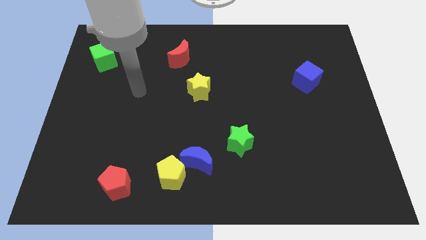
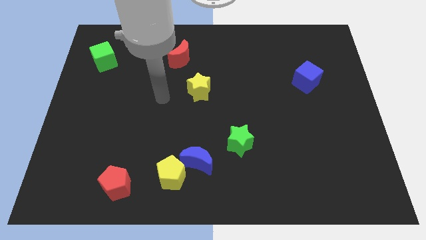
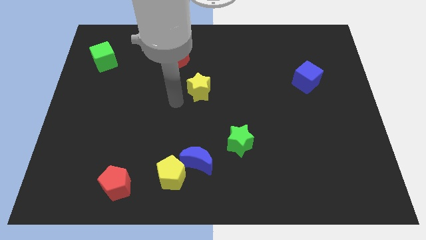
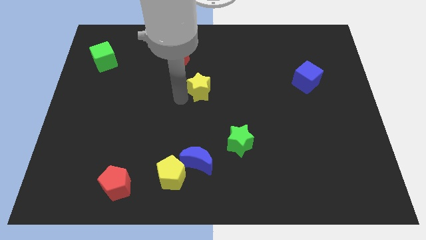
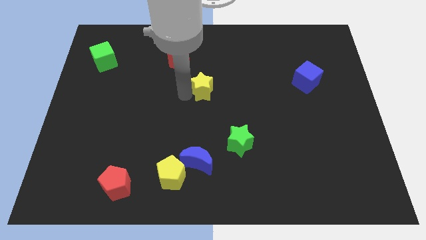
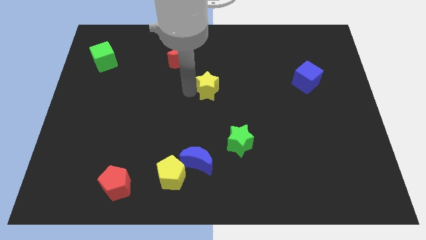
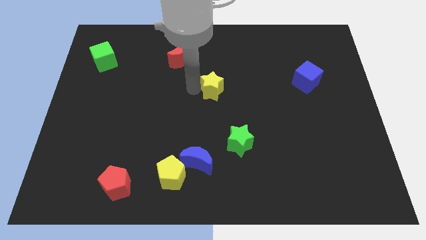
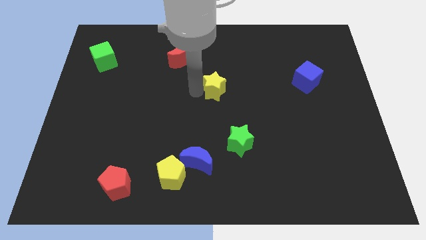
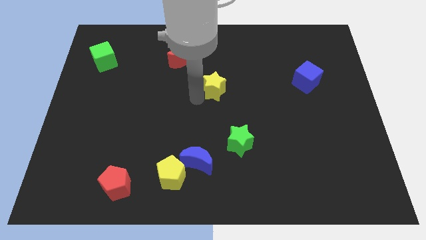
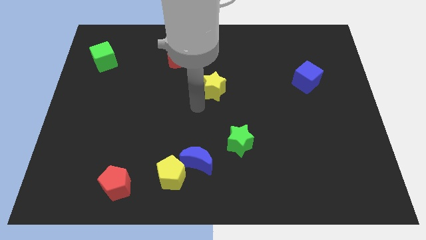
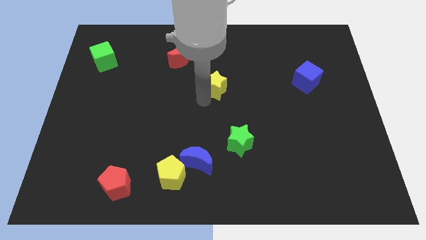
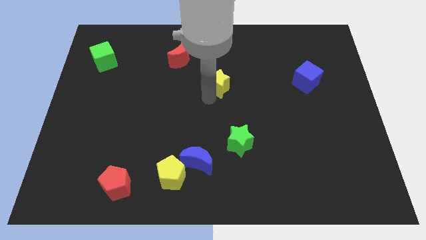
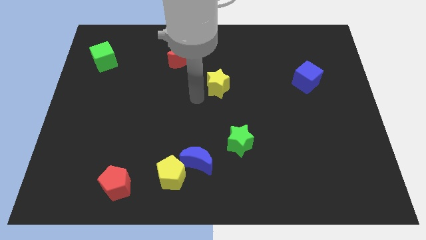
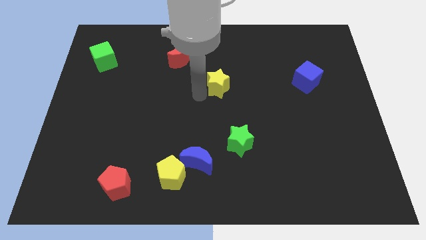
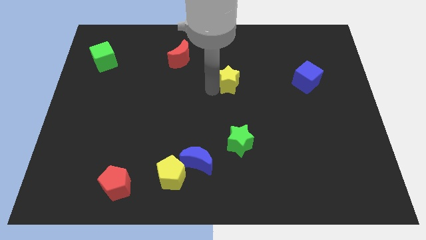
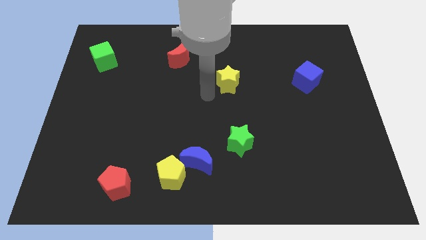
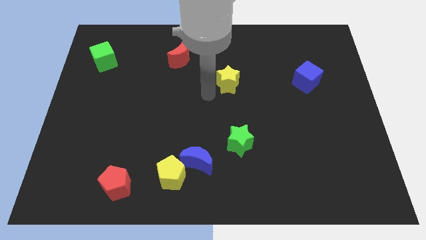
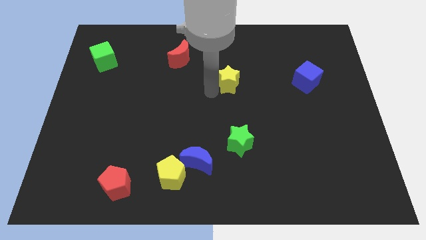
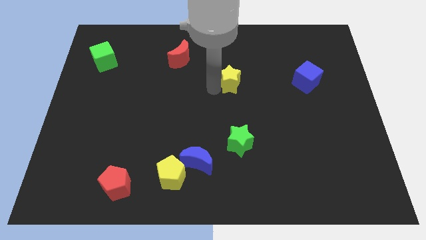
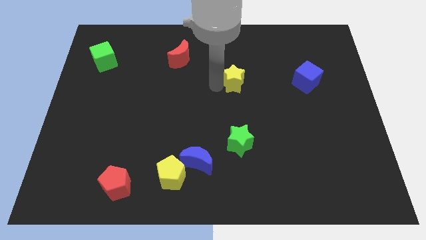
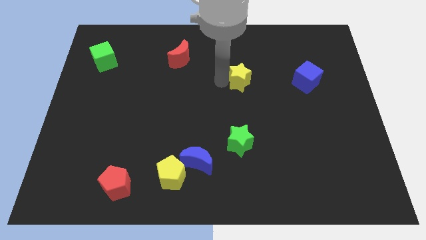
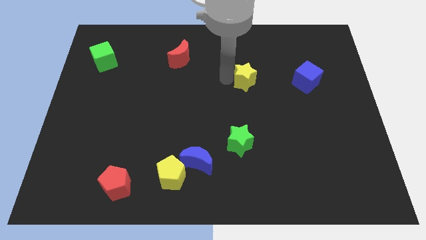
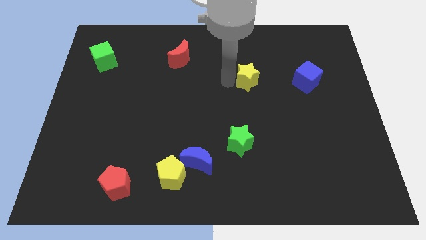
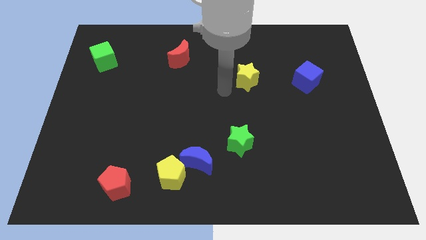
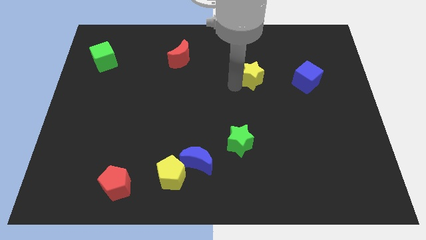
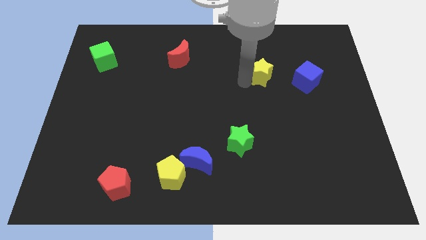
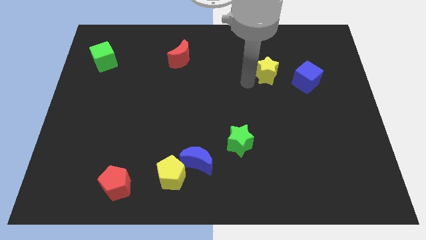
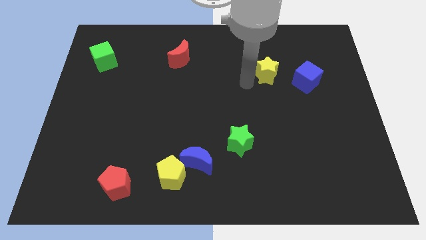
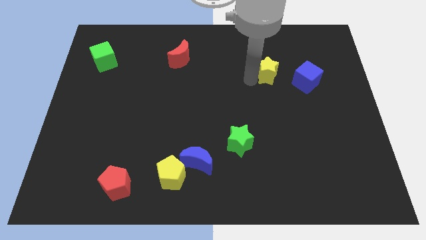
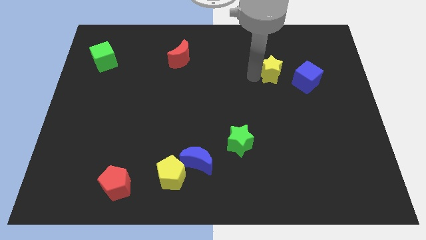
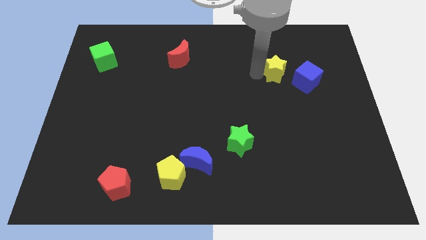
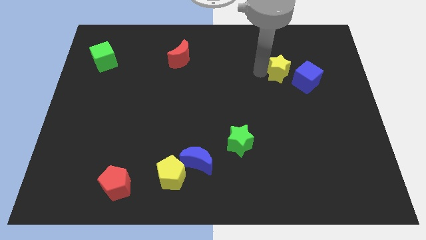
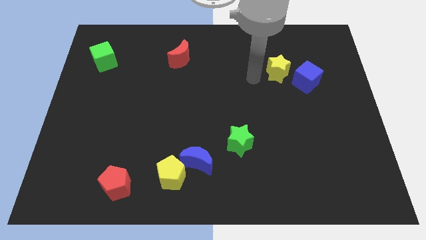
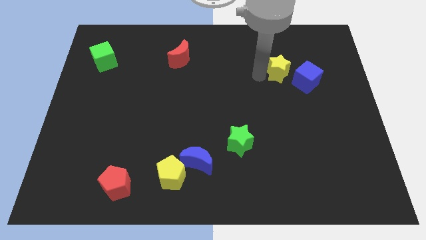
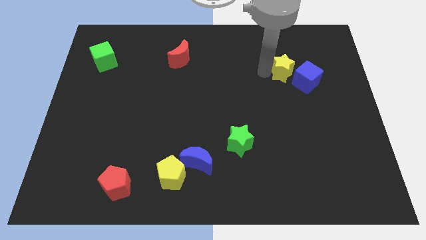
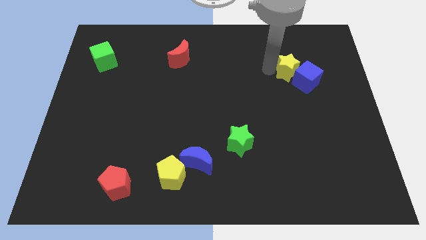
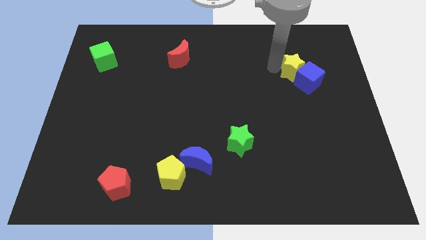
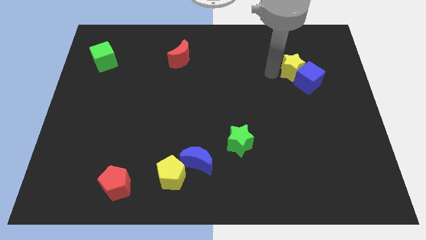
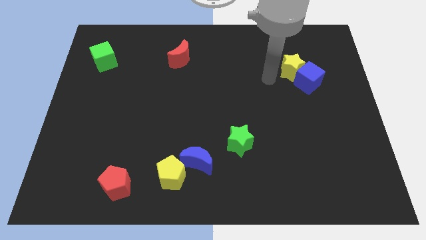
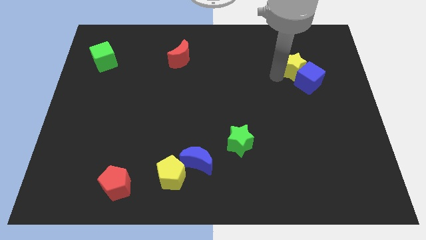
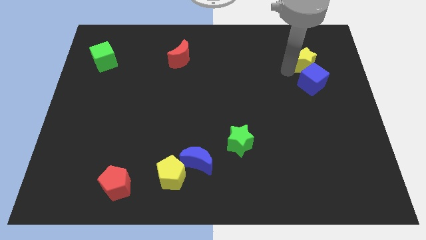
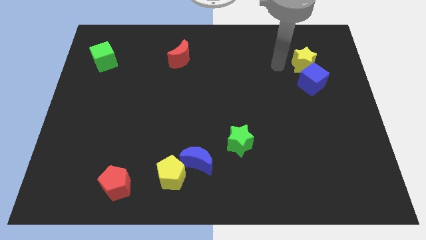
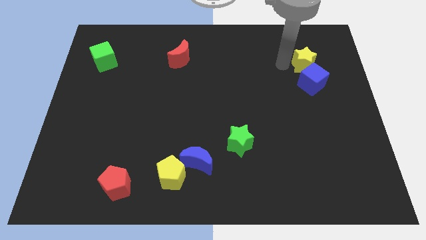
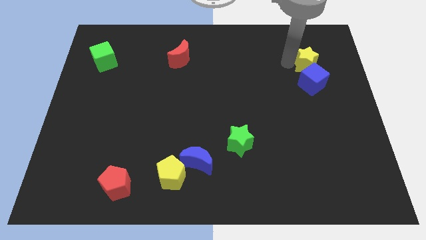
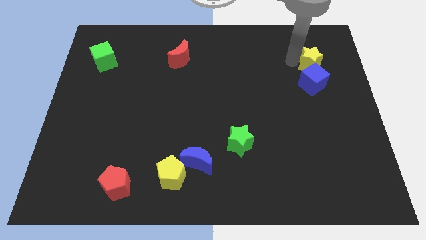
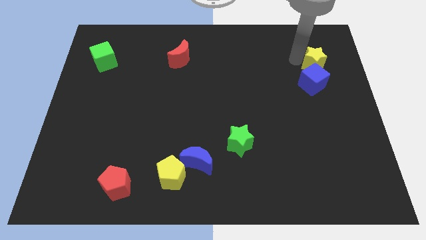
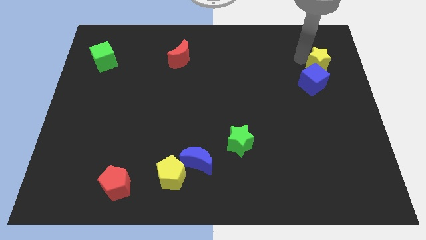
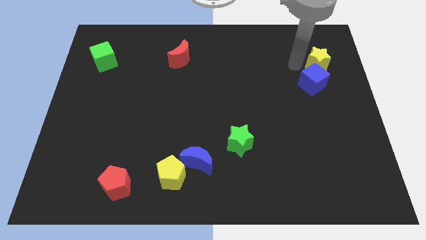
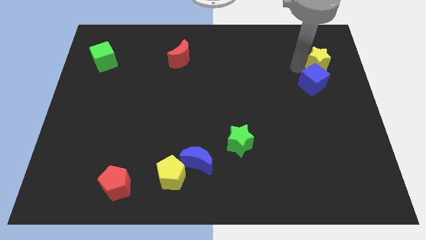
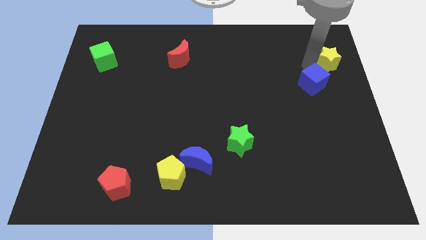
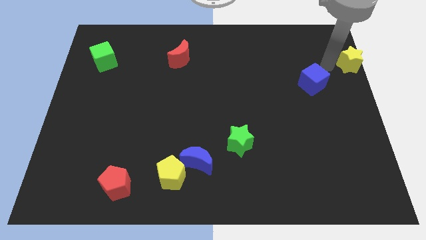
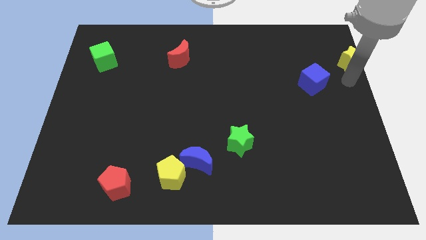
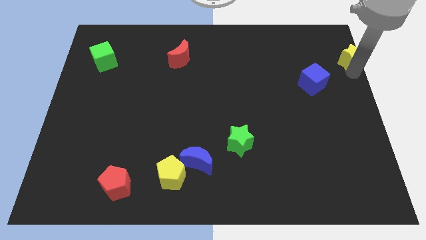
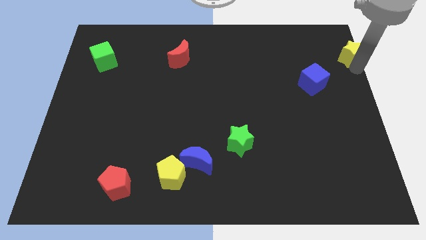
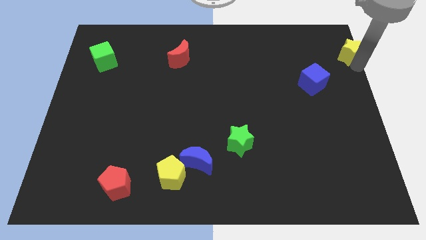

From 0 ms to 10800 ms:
slide the yellow star to the top right corner

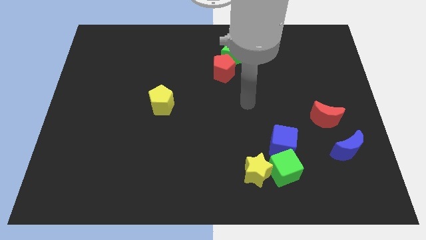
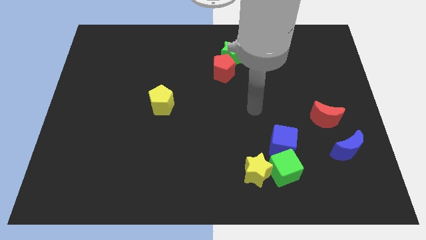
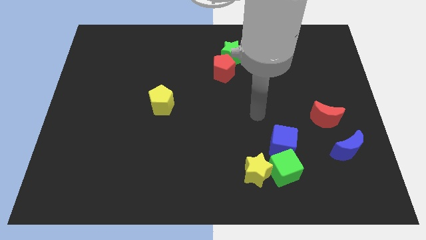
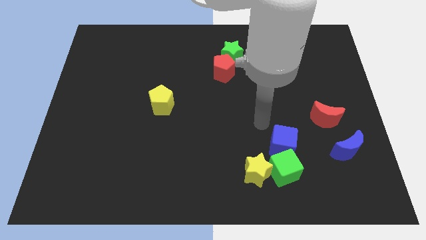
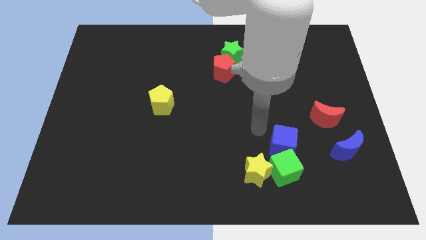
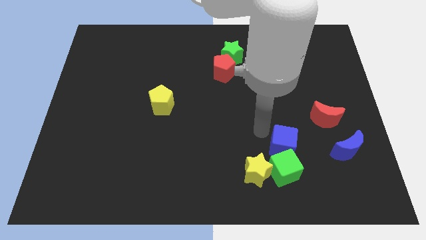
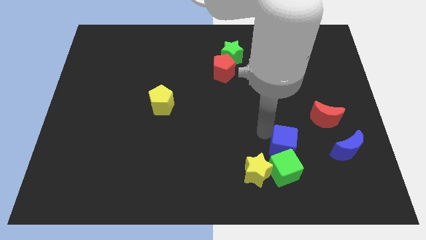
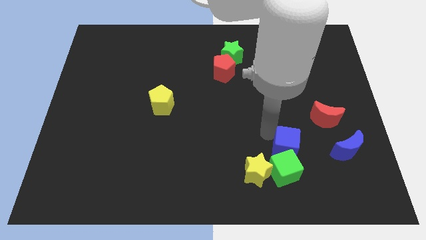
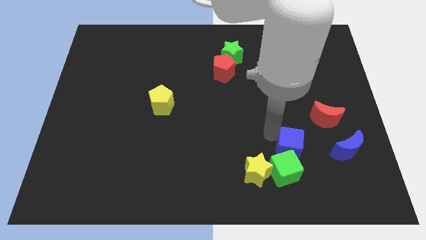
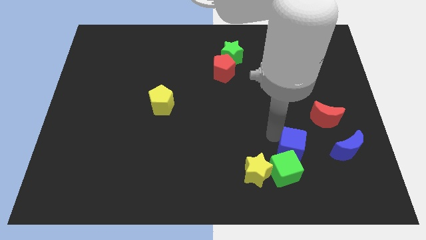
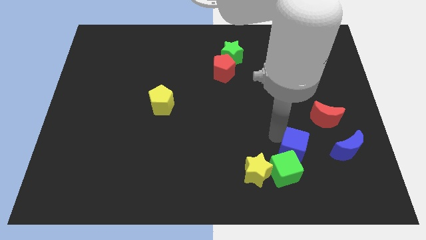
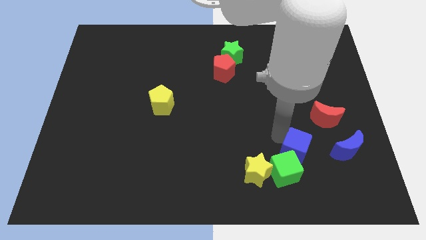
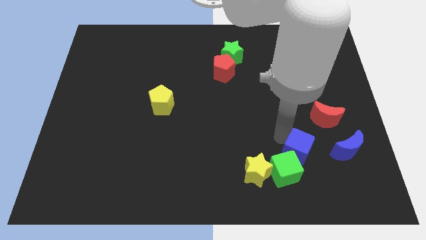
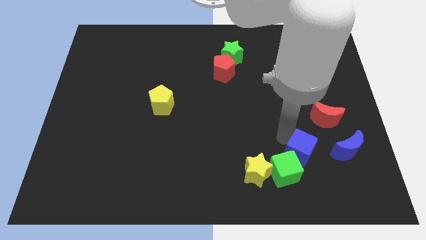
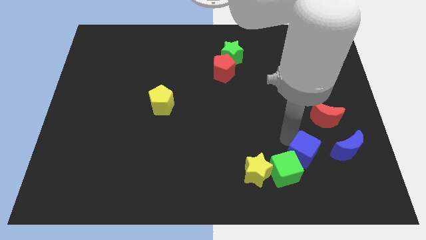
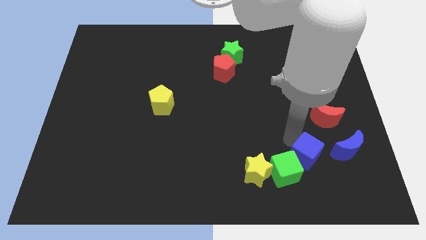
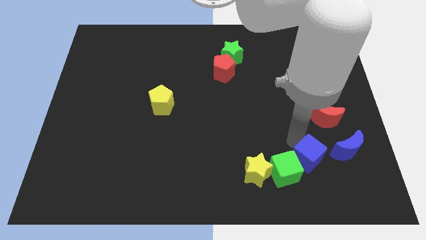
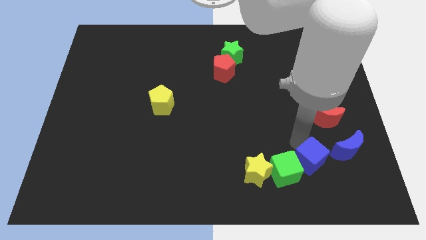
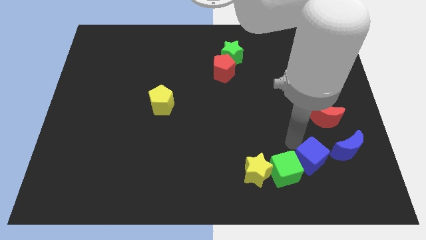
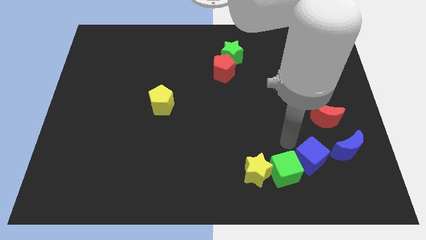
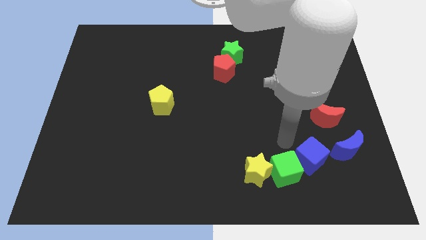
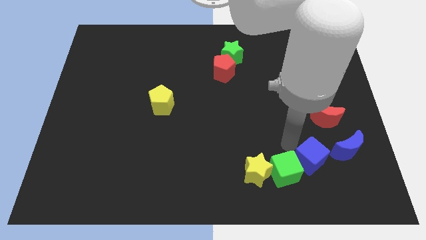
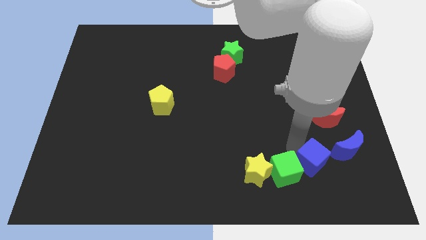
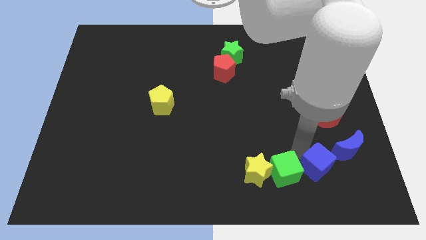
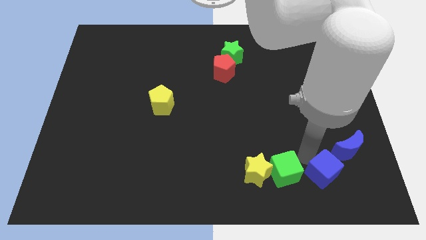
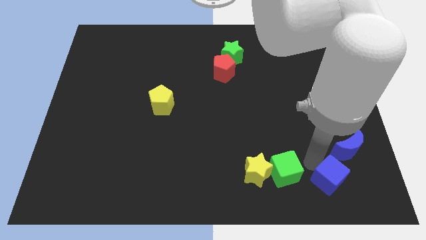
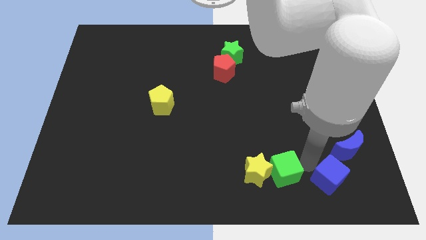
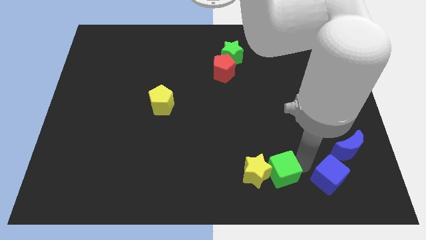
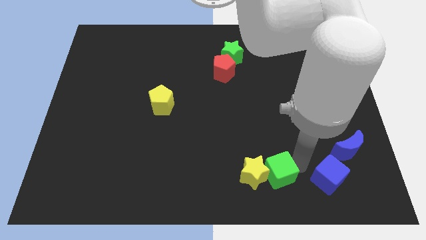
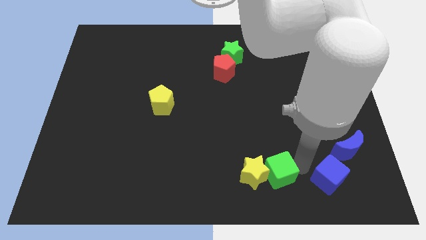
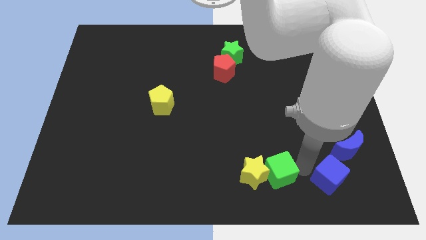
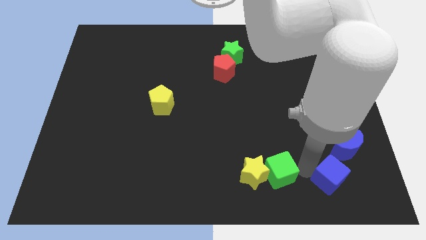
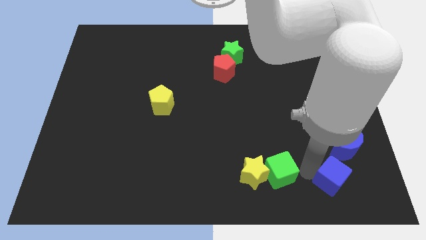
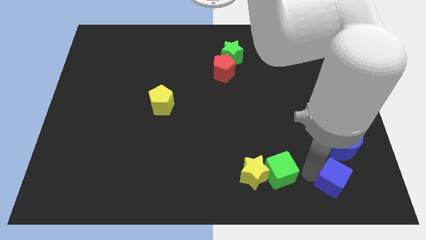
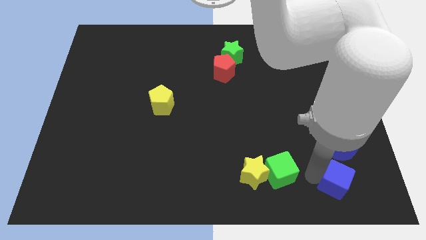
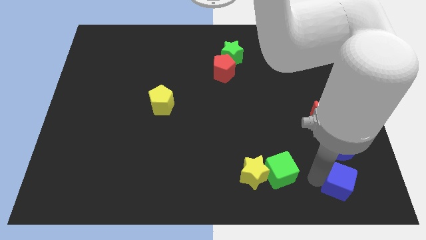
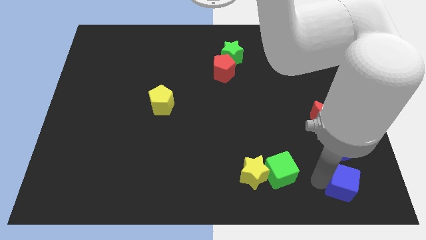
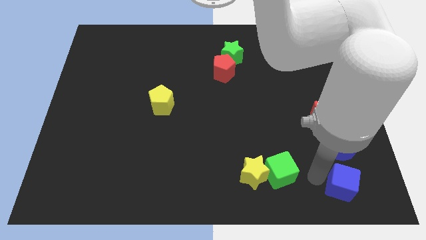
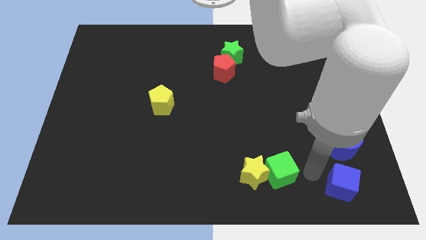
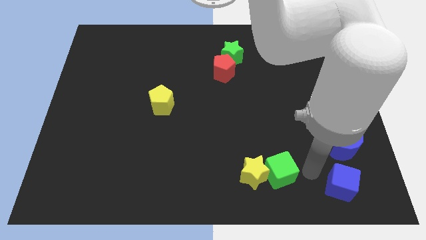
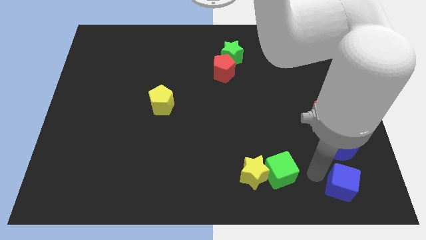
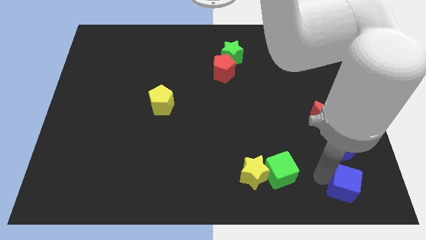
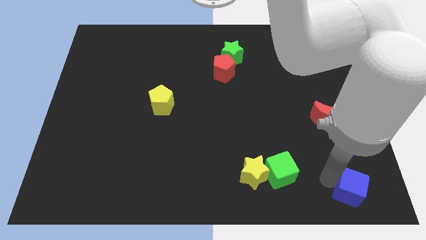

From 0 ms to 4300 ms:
move the blue cube to the bottom right of the board
